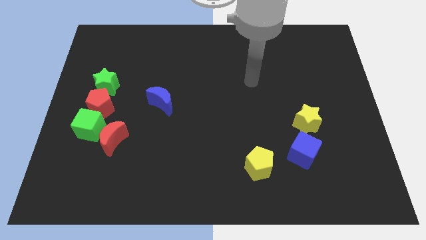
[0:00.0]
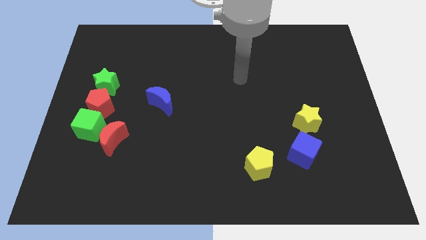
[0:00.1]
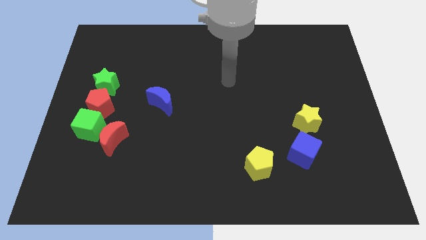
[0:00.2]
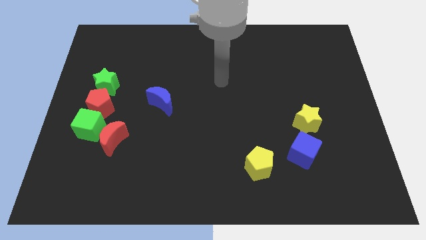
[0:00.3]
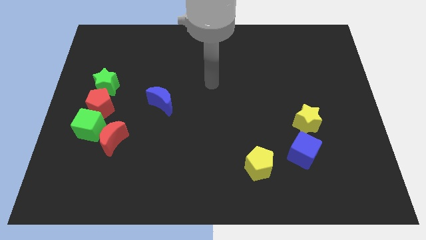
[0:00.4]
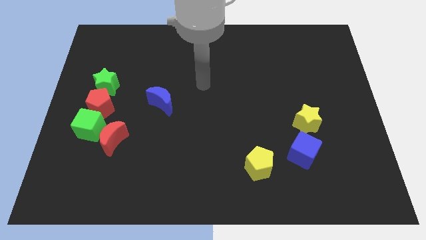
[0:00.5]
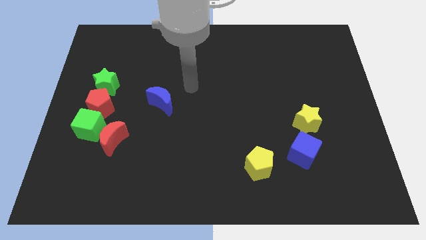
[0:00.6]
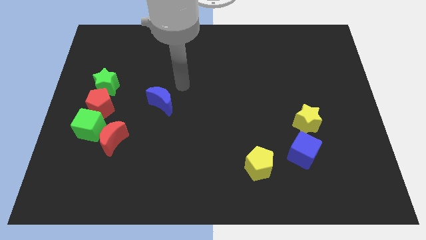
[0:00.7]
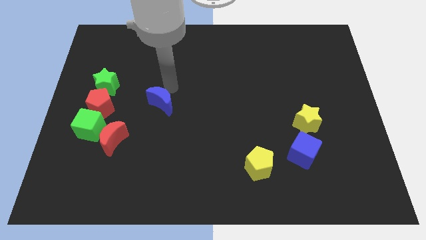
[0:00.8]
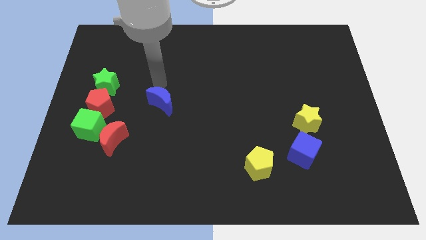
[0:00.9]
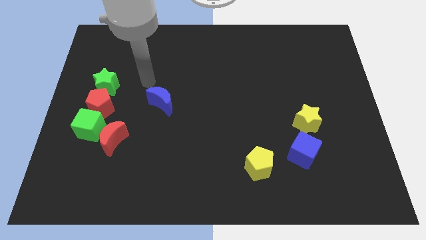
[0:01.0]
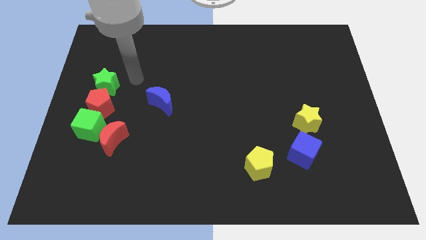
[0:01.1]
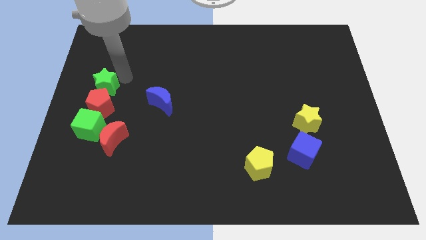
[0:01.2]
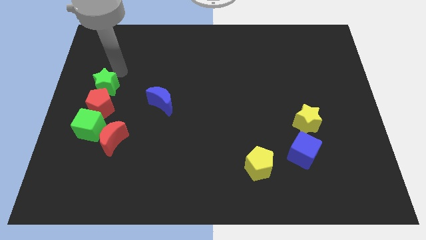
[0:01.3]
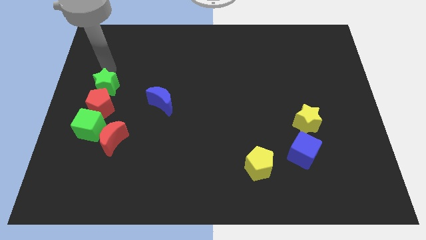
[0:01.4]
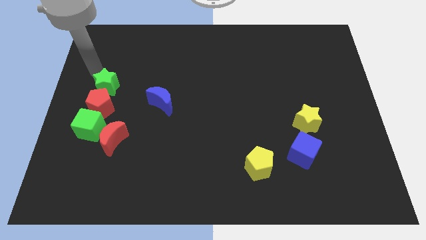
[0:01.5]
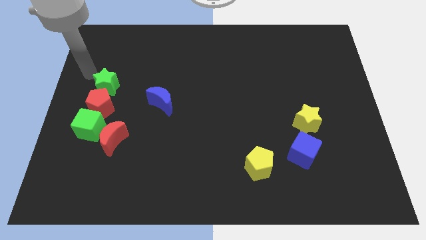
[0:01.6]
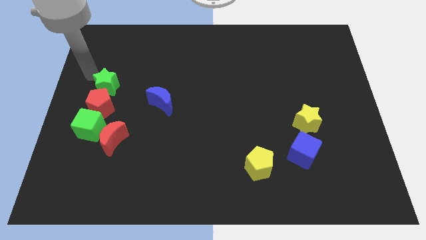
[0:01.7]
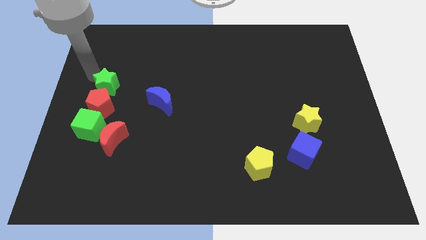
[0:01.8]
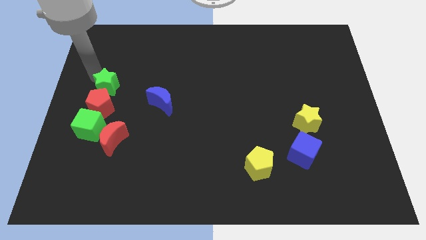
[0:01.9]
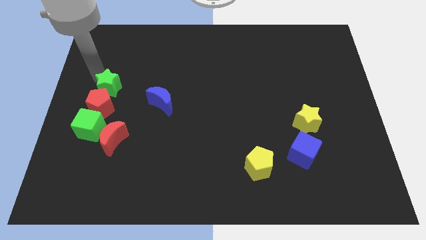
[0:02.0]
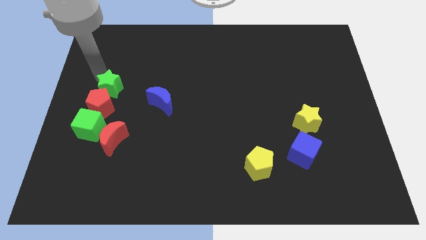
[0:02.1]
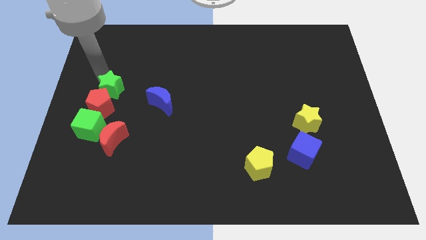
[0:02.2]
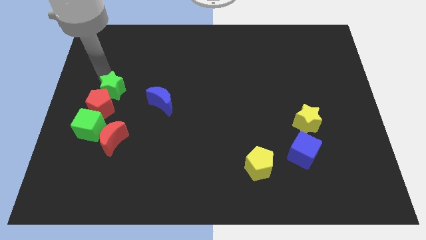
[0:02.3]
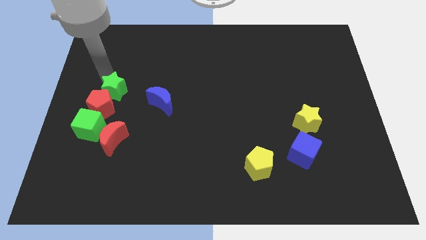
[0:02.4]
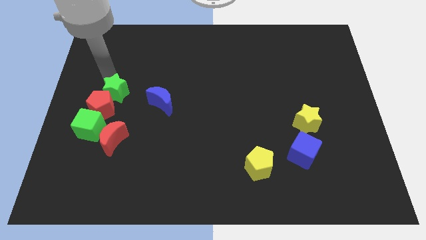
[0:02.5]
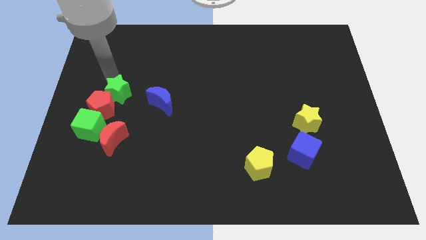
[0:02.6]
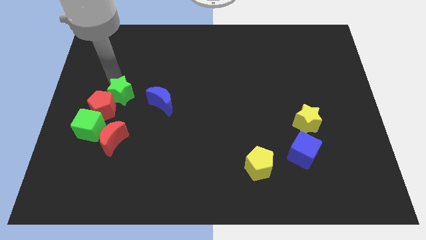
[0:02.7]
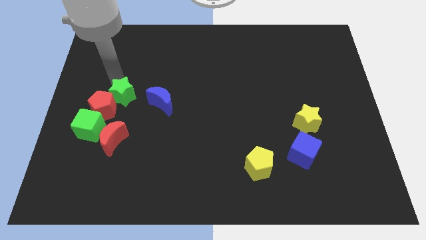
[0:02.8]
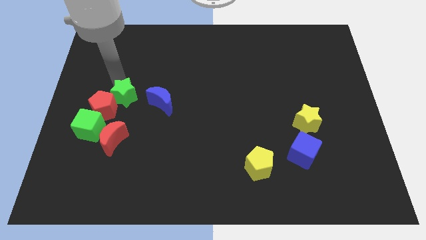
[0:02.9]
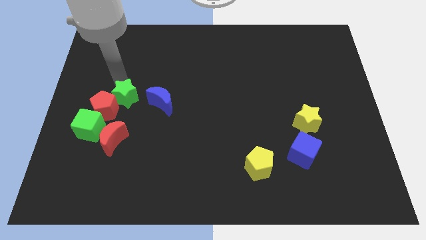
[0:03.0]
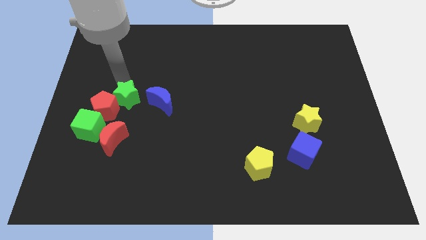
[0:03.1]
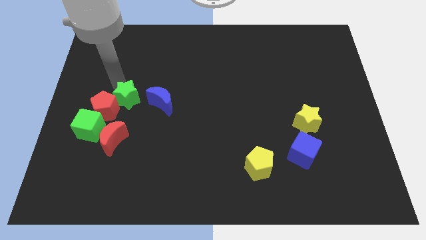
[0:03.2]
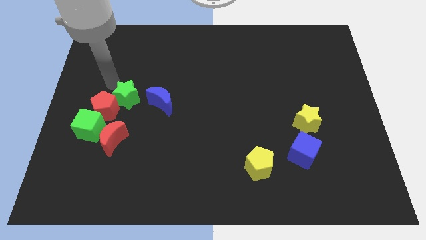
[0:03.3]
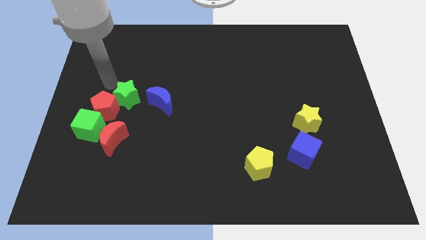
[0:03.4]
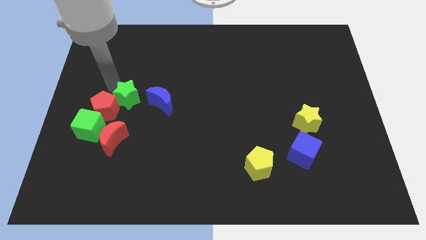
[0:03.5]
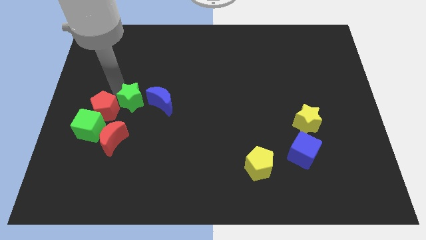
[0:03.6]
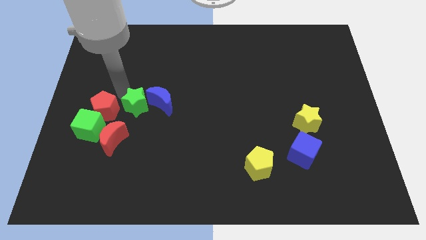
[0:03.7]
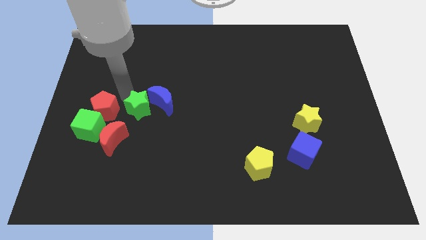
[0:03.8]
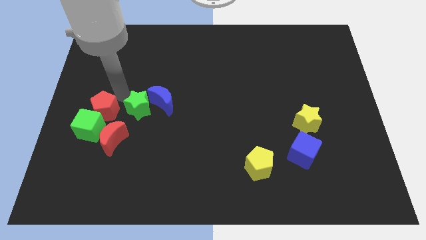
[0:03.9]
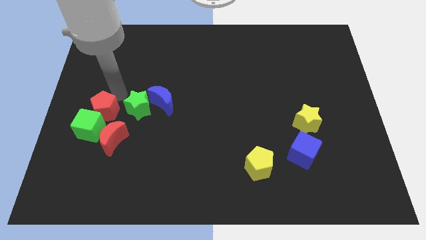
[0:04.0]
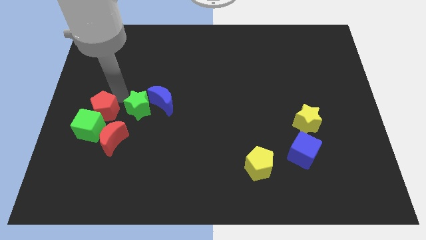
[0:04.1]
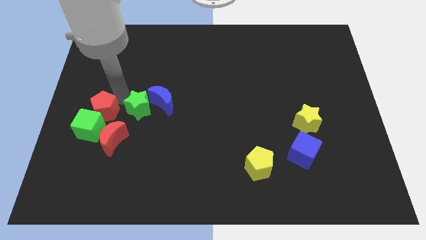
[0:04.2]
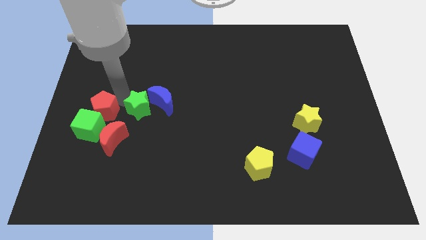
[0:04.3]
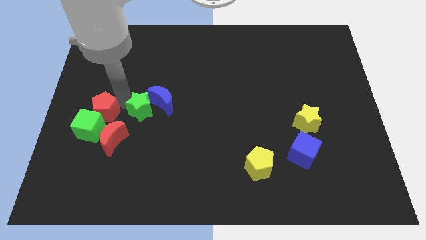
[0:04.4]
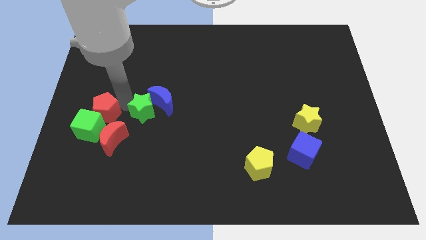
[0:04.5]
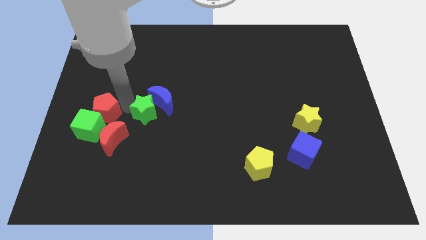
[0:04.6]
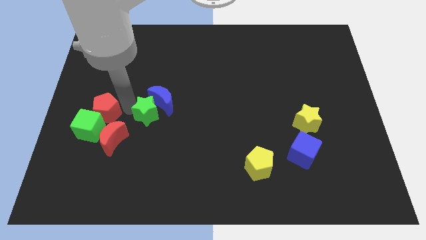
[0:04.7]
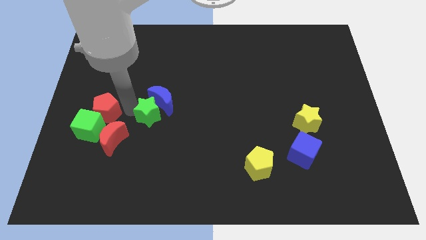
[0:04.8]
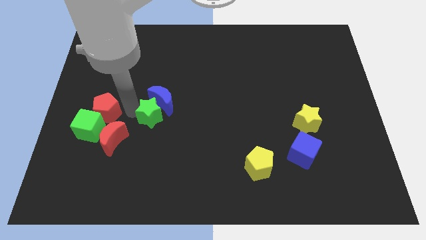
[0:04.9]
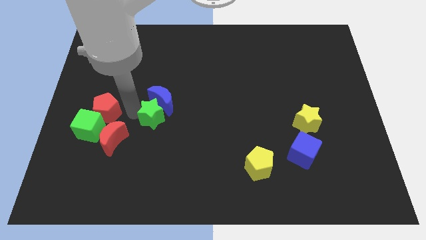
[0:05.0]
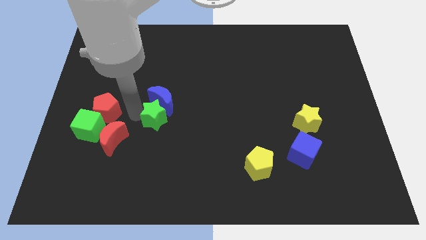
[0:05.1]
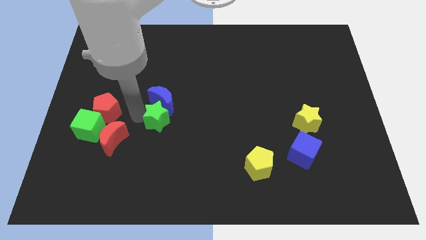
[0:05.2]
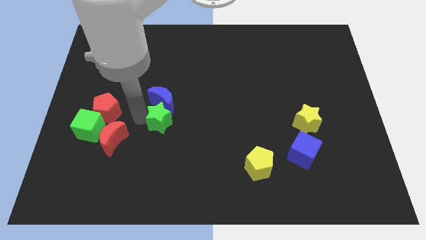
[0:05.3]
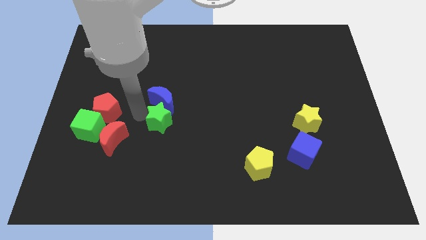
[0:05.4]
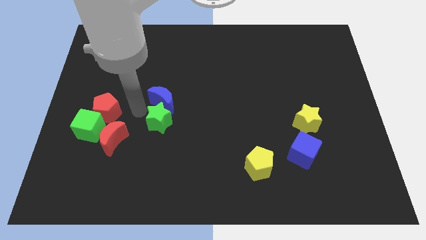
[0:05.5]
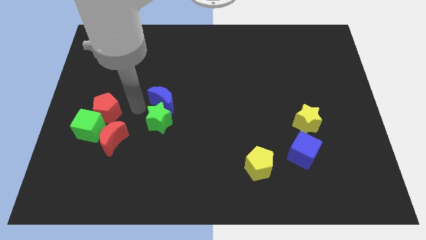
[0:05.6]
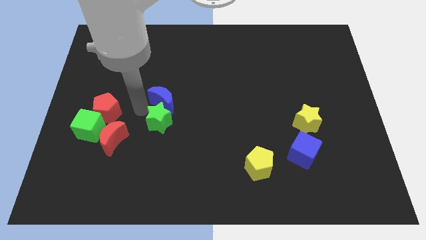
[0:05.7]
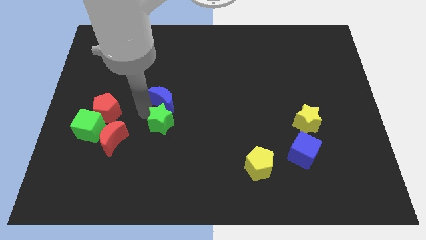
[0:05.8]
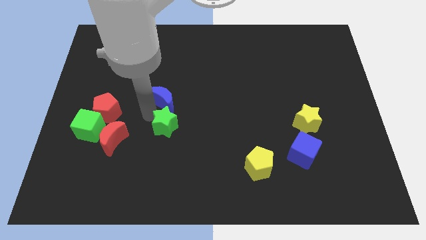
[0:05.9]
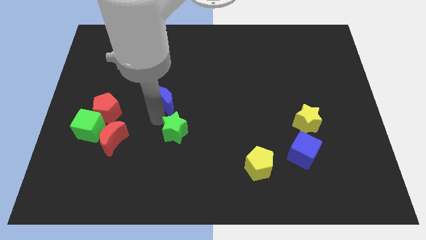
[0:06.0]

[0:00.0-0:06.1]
move the green star down and then right

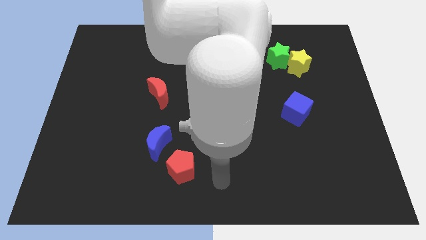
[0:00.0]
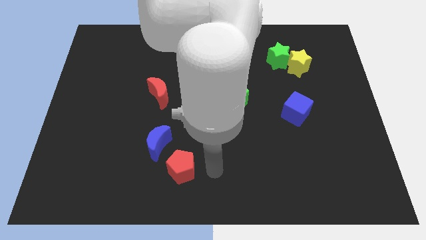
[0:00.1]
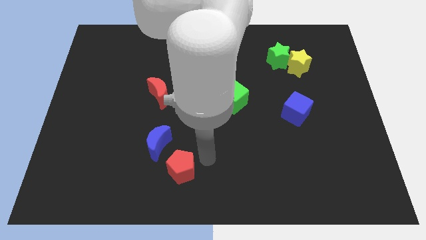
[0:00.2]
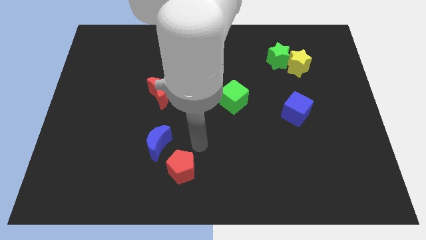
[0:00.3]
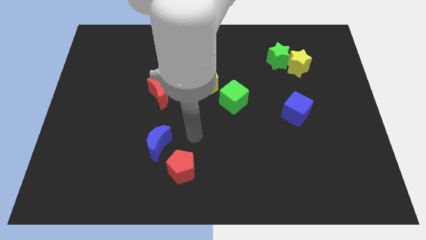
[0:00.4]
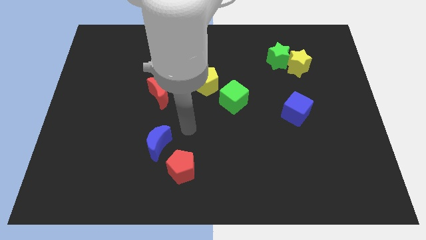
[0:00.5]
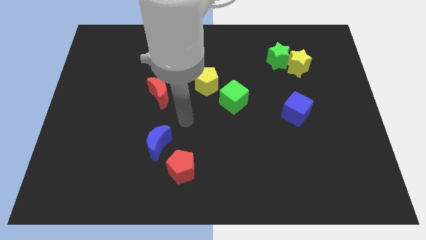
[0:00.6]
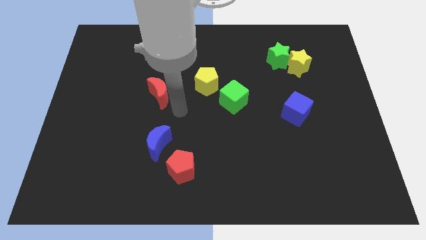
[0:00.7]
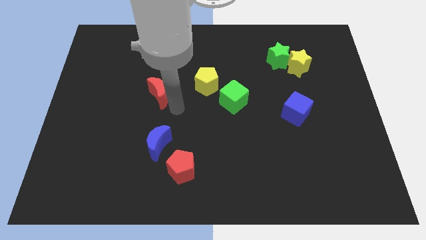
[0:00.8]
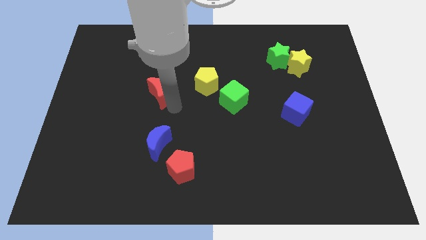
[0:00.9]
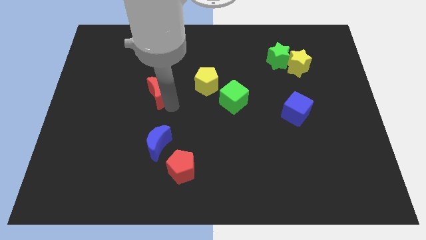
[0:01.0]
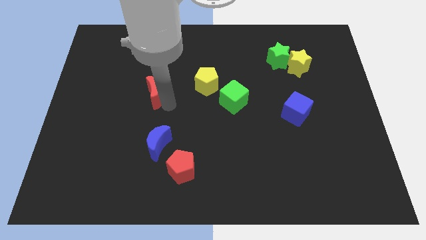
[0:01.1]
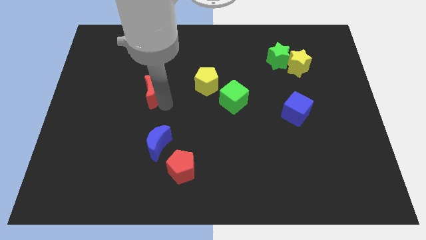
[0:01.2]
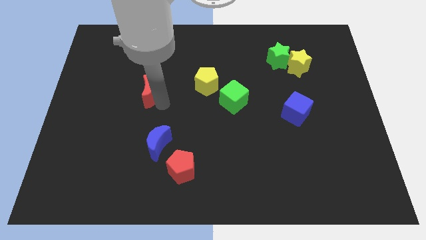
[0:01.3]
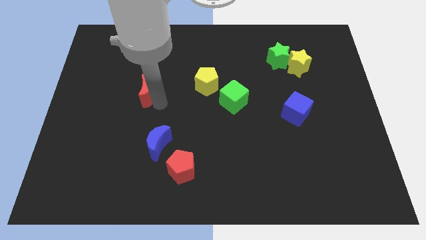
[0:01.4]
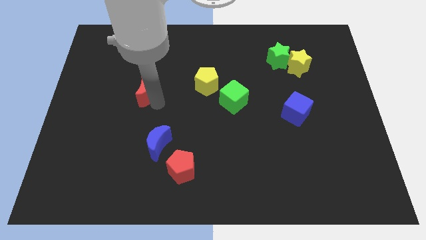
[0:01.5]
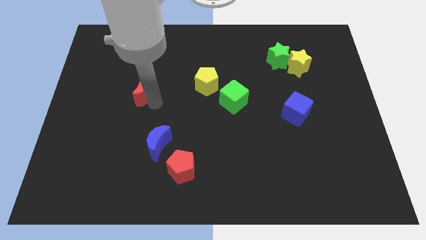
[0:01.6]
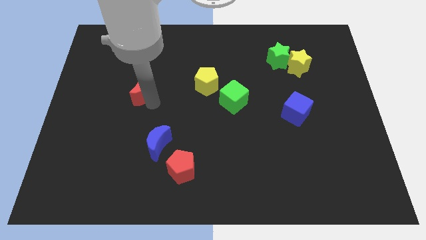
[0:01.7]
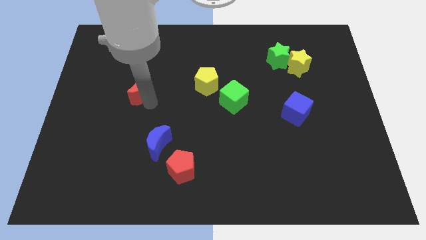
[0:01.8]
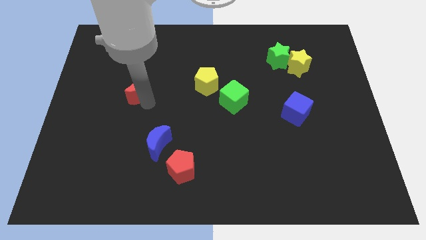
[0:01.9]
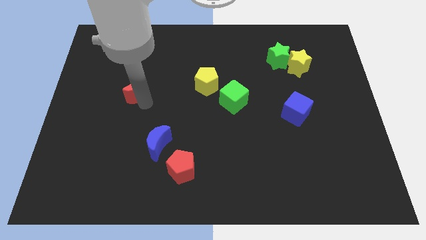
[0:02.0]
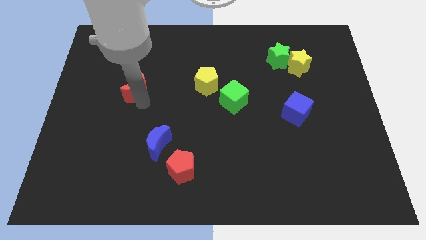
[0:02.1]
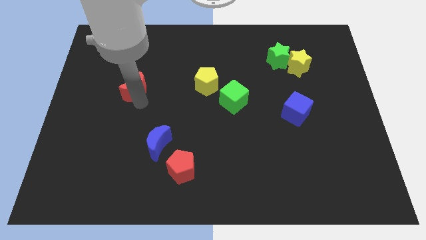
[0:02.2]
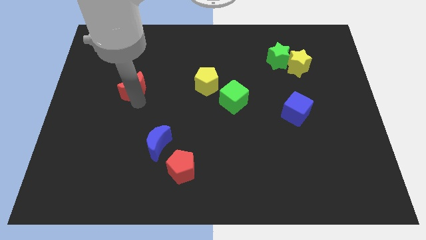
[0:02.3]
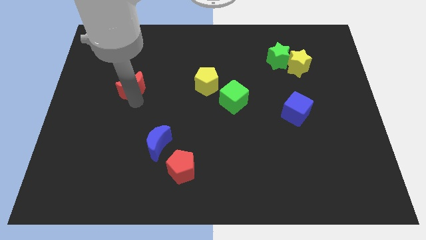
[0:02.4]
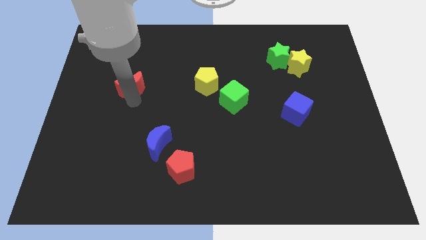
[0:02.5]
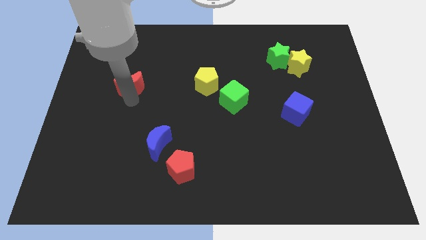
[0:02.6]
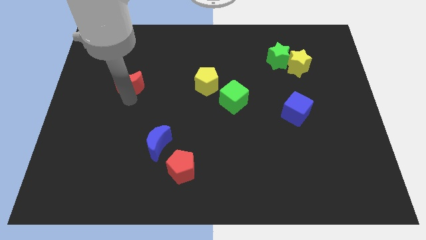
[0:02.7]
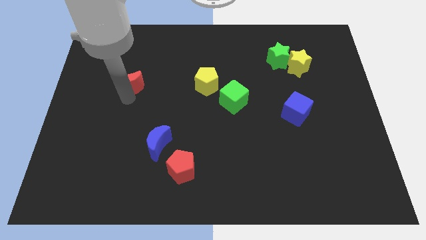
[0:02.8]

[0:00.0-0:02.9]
slide the red moon up and then left somewhat
